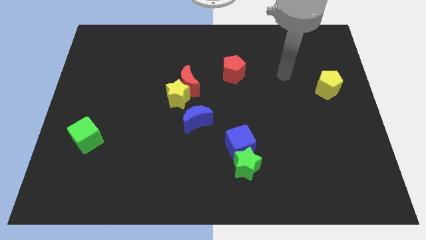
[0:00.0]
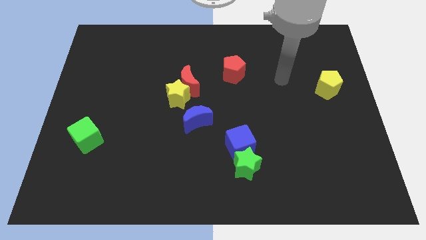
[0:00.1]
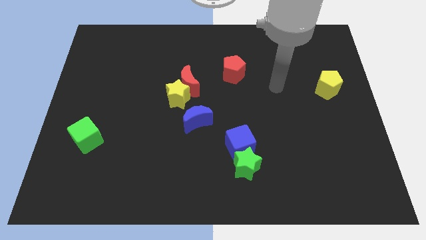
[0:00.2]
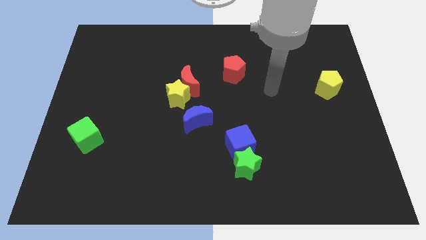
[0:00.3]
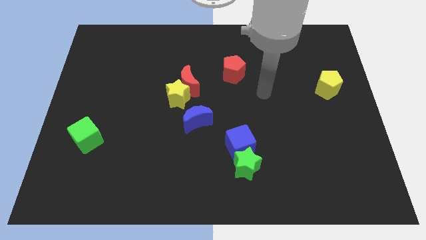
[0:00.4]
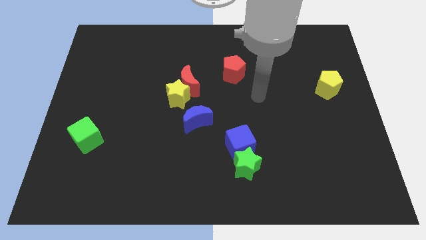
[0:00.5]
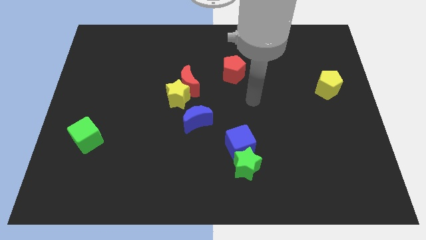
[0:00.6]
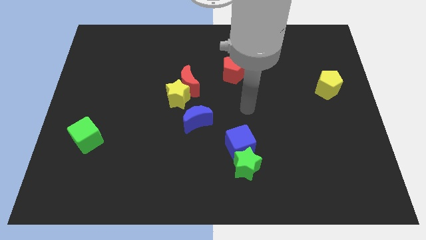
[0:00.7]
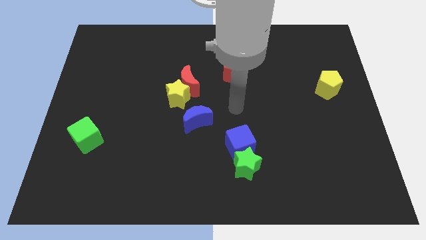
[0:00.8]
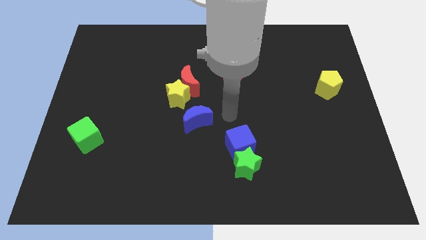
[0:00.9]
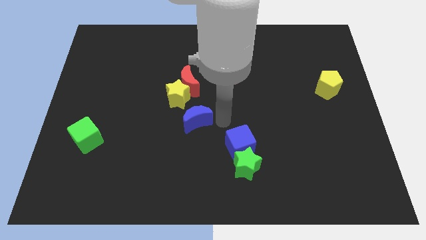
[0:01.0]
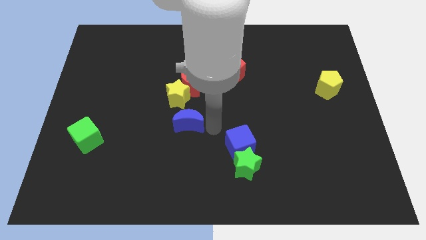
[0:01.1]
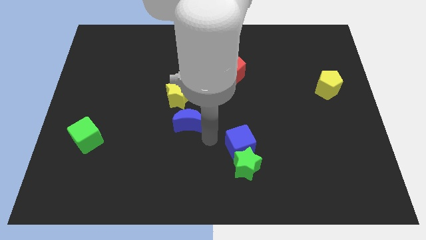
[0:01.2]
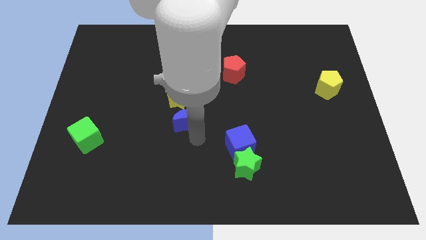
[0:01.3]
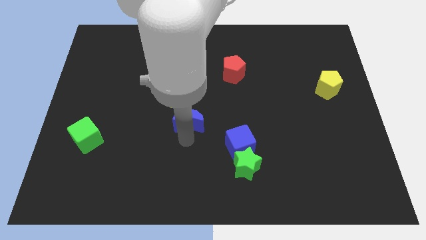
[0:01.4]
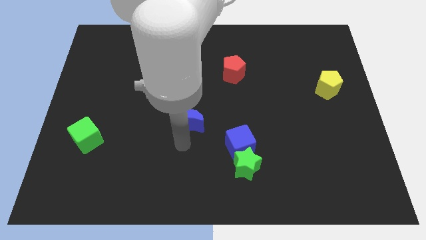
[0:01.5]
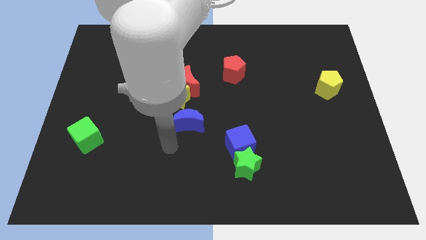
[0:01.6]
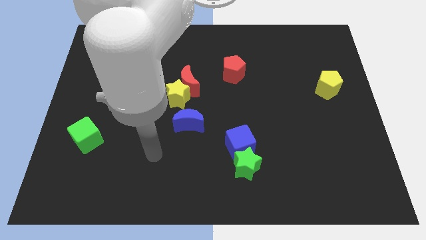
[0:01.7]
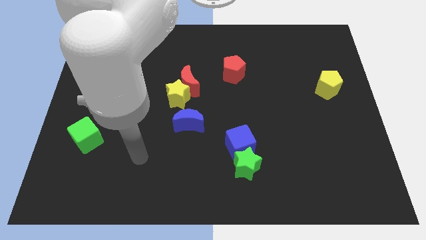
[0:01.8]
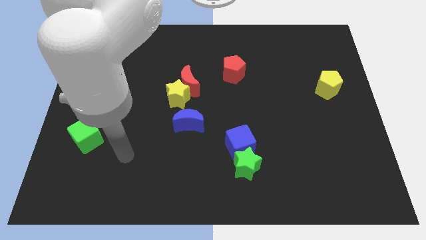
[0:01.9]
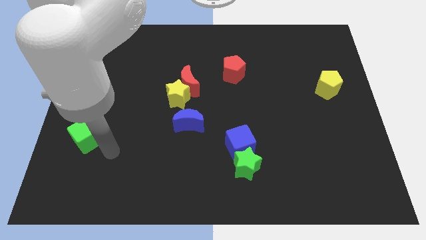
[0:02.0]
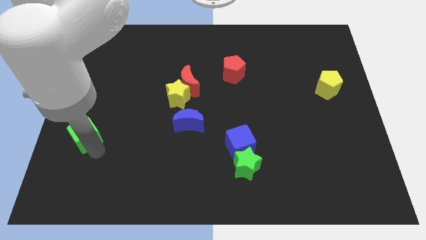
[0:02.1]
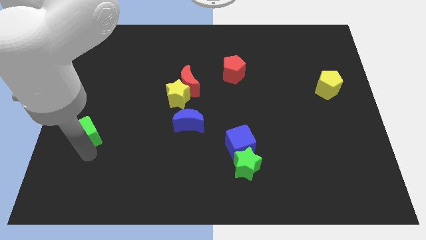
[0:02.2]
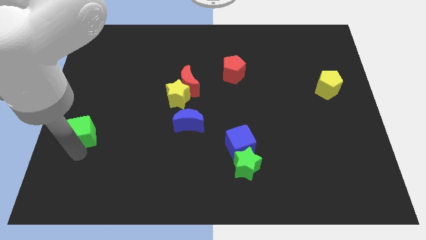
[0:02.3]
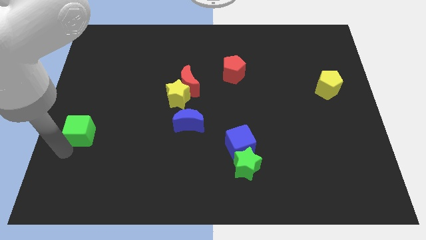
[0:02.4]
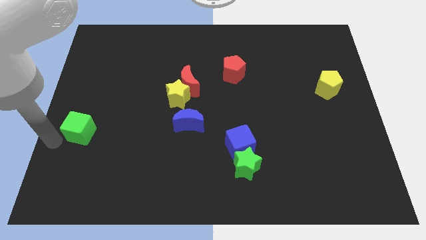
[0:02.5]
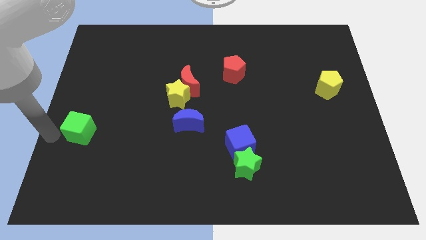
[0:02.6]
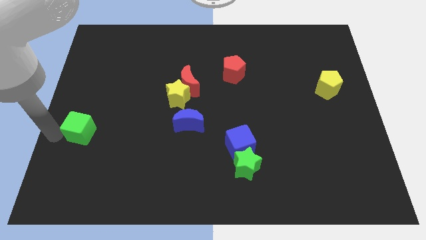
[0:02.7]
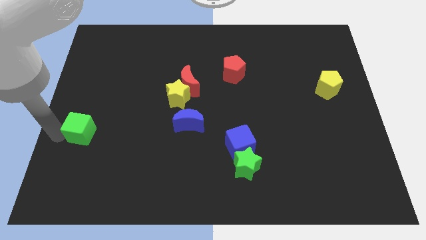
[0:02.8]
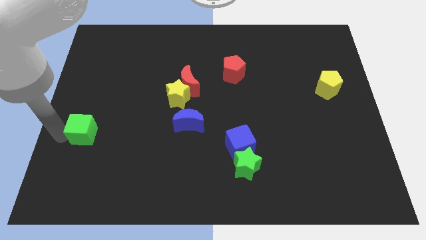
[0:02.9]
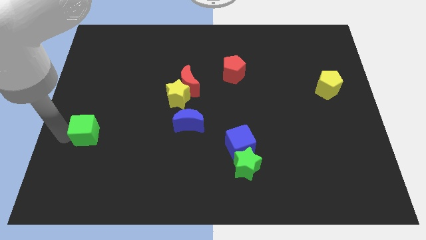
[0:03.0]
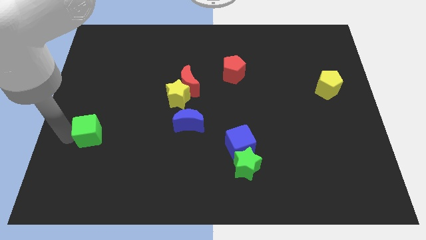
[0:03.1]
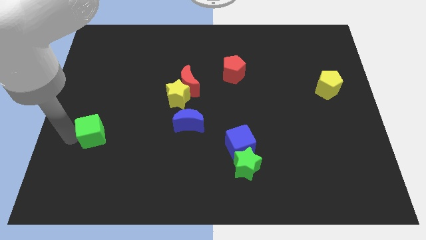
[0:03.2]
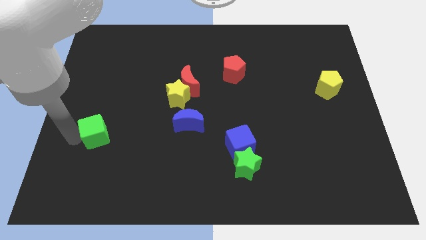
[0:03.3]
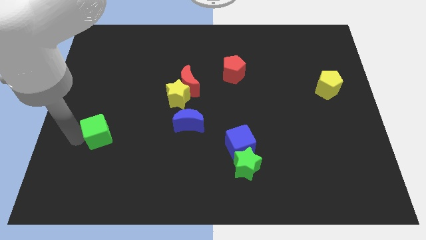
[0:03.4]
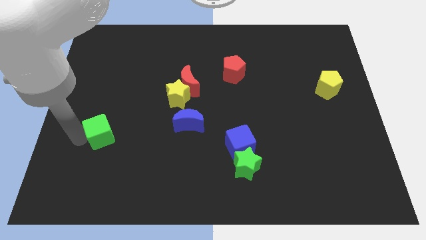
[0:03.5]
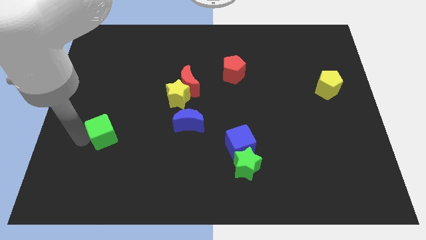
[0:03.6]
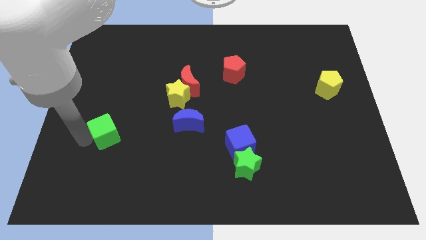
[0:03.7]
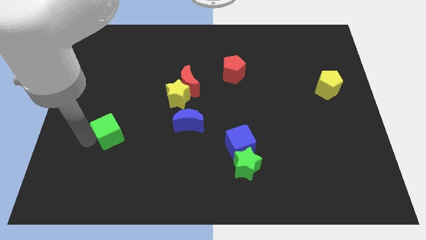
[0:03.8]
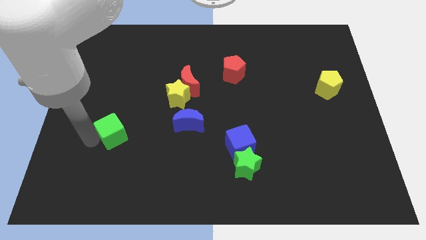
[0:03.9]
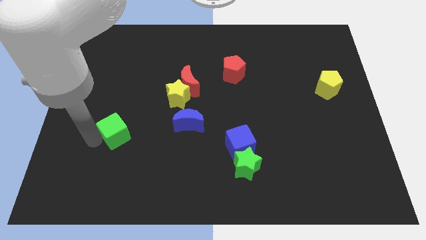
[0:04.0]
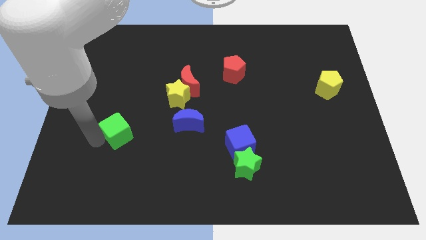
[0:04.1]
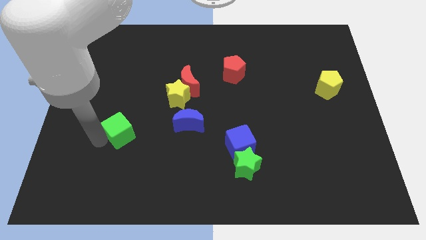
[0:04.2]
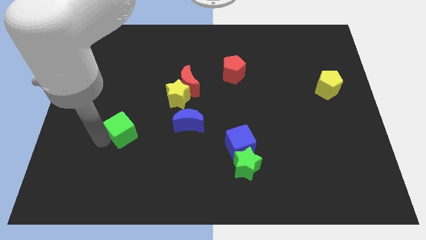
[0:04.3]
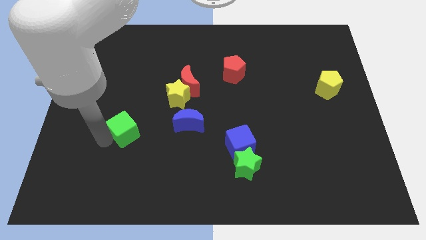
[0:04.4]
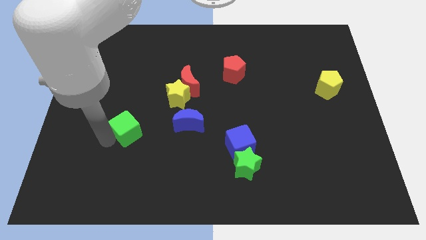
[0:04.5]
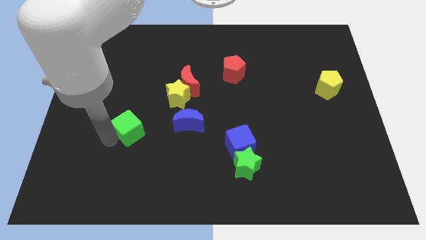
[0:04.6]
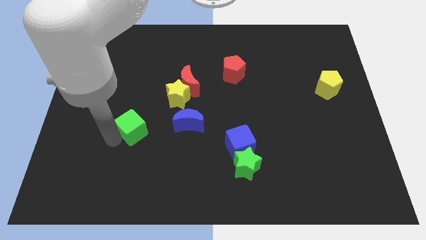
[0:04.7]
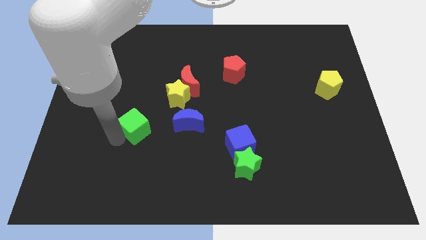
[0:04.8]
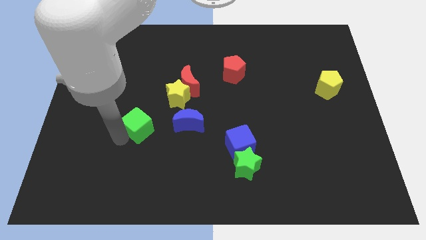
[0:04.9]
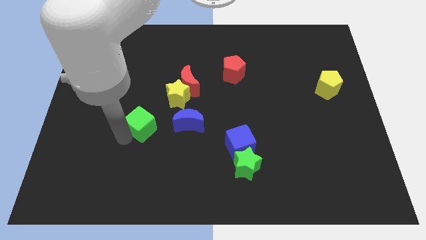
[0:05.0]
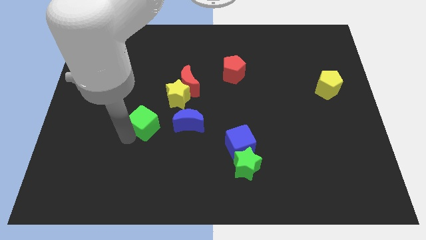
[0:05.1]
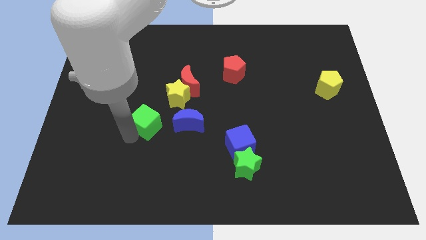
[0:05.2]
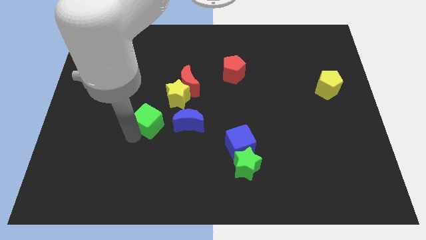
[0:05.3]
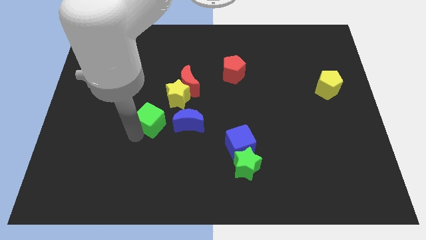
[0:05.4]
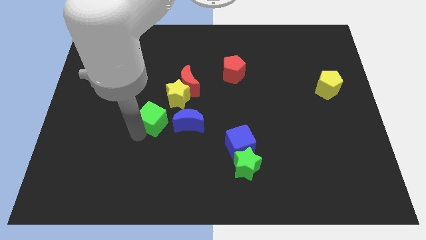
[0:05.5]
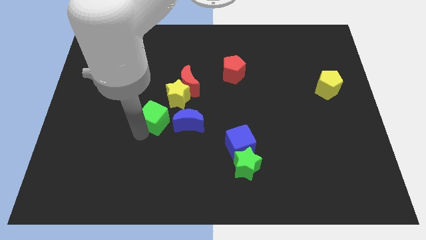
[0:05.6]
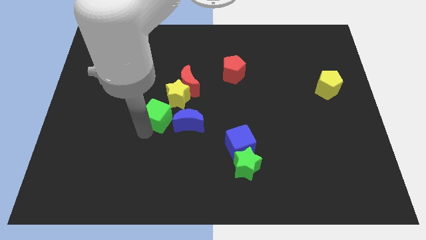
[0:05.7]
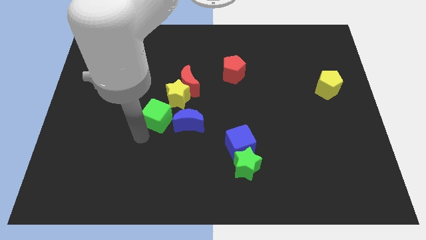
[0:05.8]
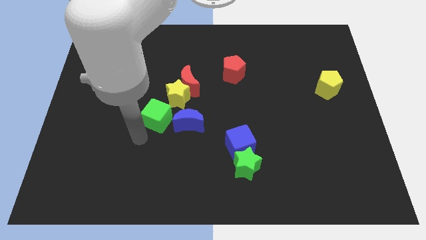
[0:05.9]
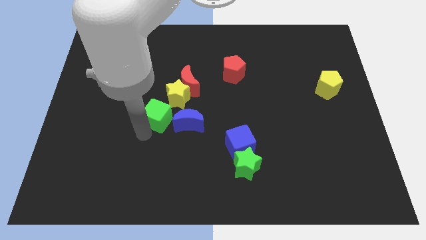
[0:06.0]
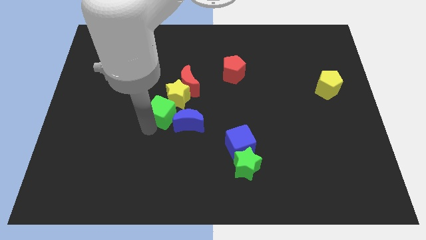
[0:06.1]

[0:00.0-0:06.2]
put the green cube towards the yellow star

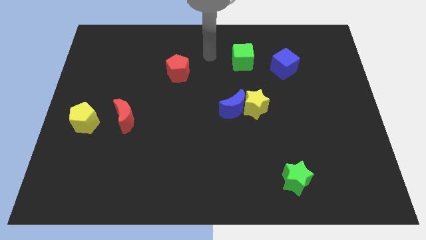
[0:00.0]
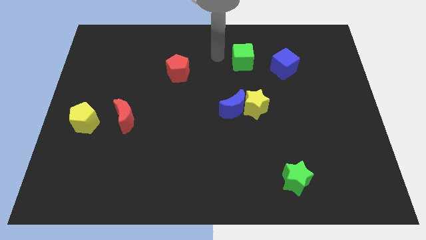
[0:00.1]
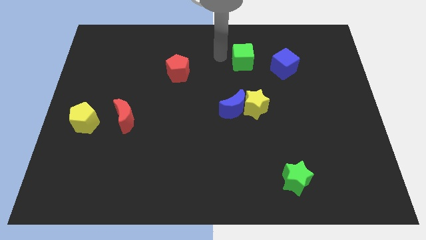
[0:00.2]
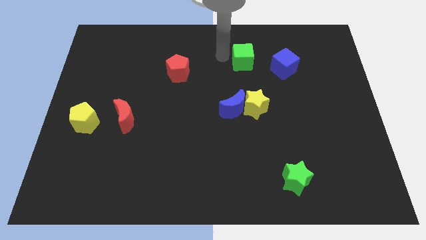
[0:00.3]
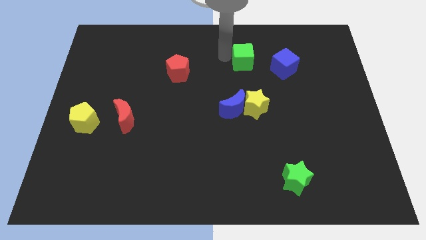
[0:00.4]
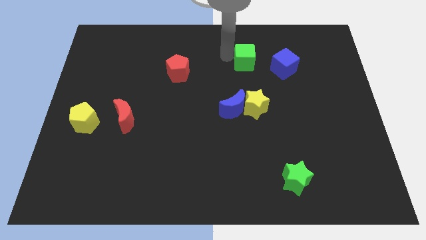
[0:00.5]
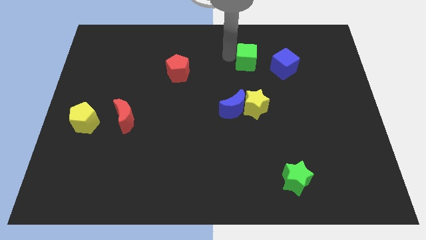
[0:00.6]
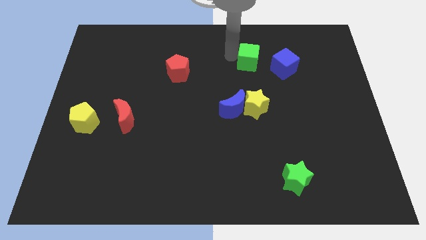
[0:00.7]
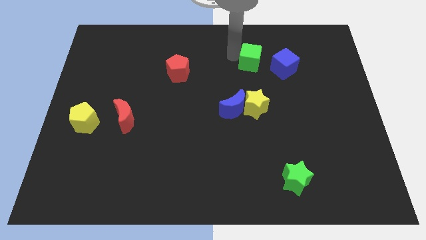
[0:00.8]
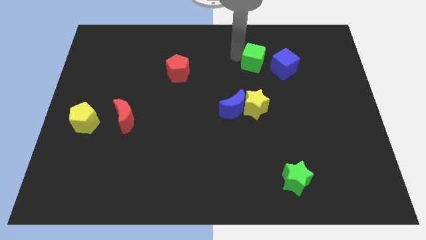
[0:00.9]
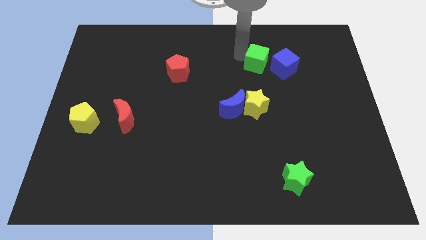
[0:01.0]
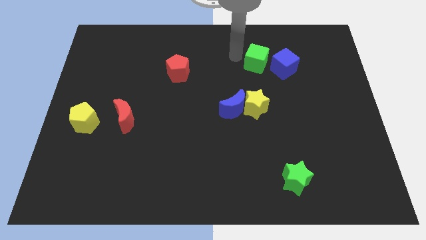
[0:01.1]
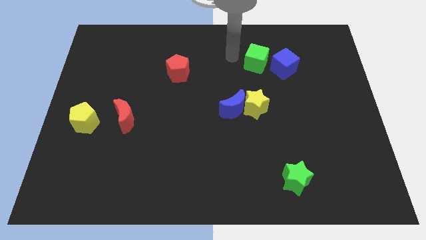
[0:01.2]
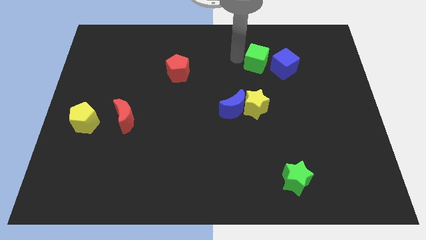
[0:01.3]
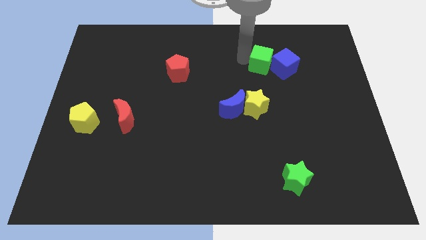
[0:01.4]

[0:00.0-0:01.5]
push the green cube close to the blue cube
